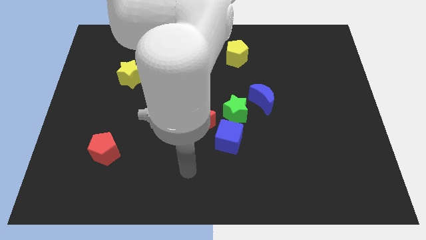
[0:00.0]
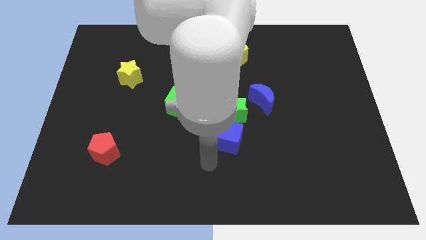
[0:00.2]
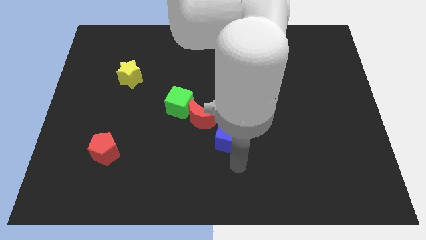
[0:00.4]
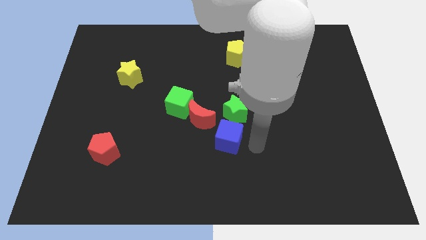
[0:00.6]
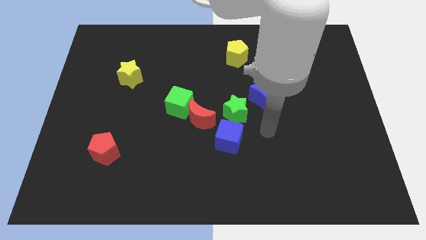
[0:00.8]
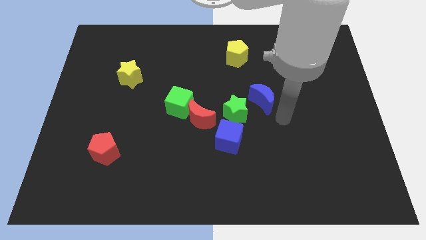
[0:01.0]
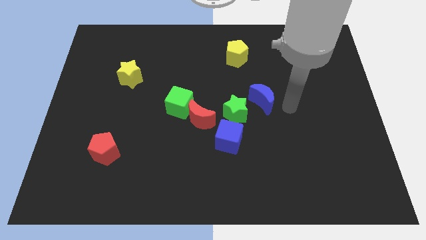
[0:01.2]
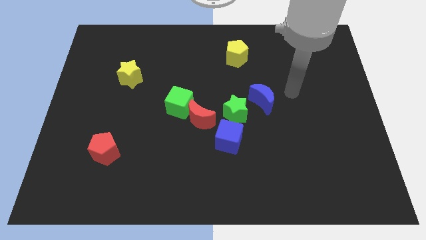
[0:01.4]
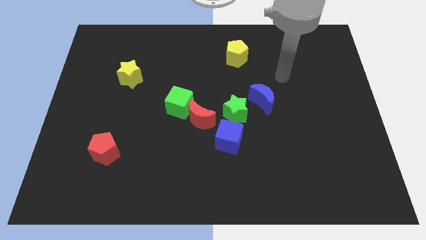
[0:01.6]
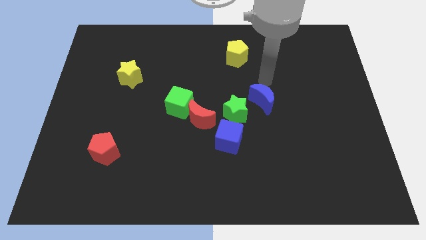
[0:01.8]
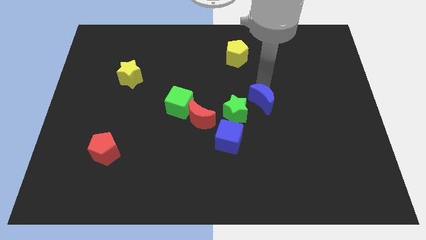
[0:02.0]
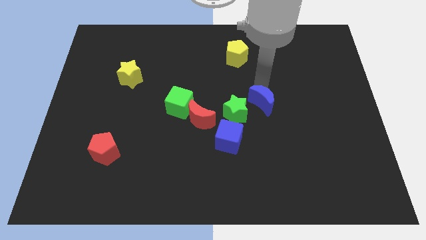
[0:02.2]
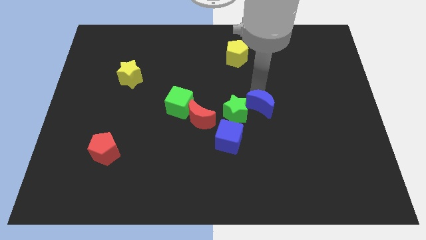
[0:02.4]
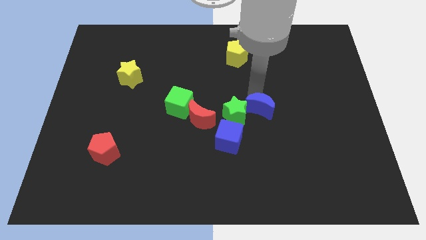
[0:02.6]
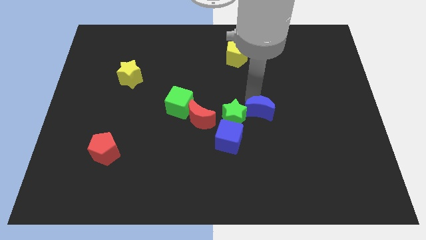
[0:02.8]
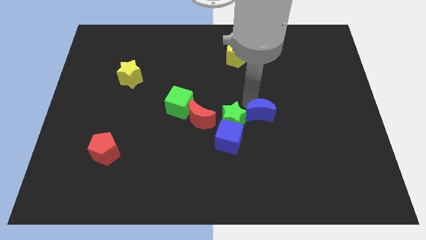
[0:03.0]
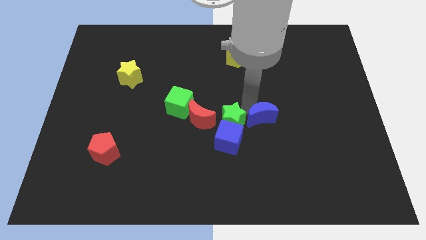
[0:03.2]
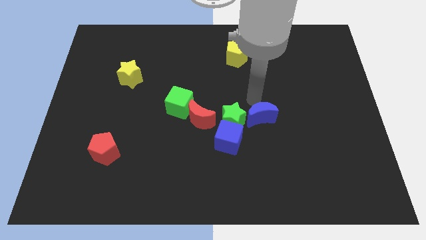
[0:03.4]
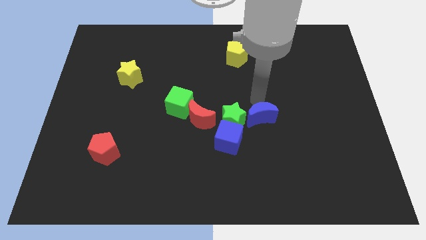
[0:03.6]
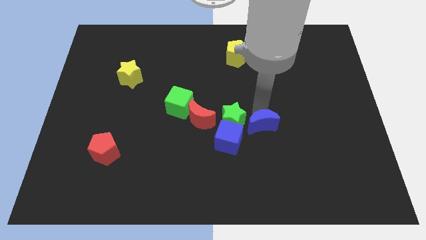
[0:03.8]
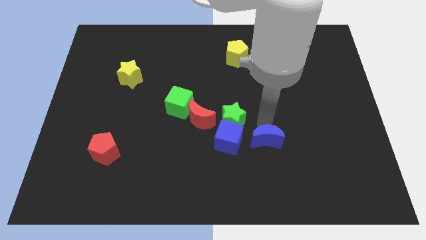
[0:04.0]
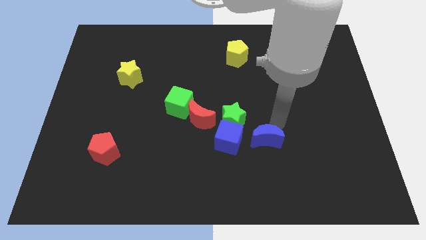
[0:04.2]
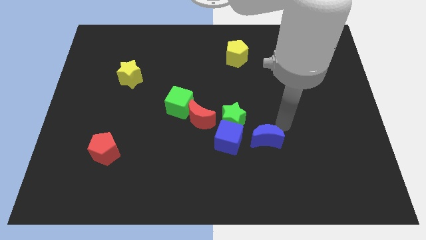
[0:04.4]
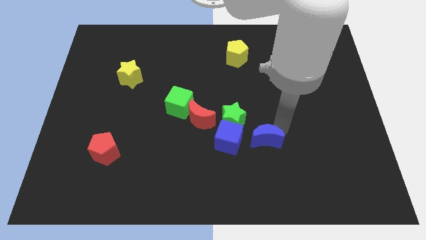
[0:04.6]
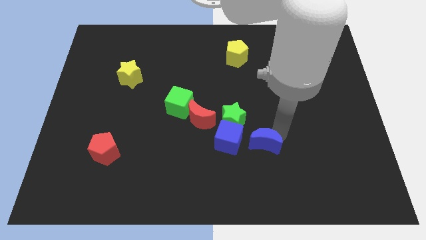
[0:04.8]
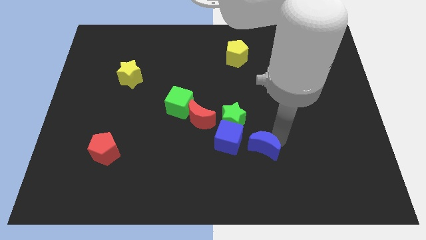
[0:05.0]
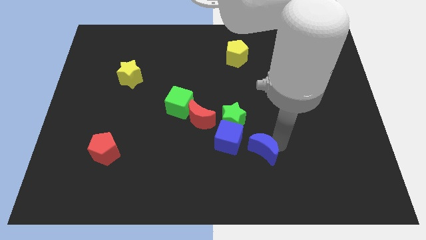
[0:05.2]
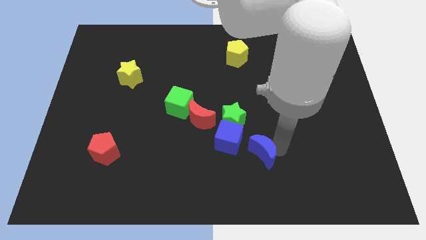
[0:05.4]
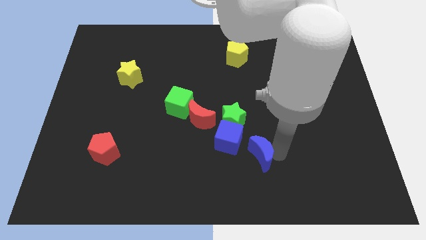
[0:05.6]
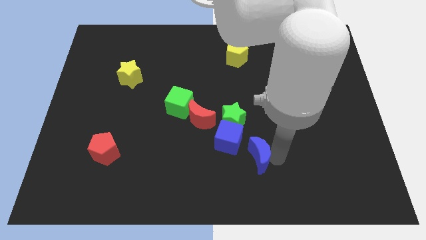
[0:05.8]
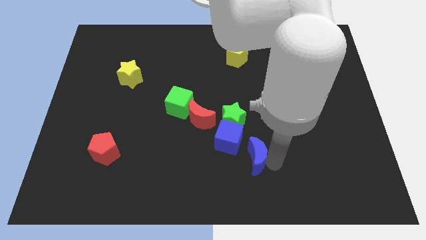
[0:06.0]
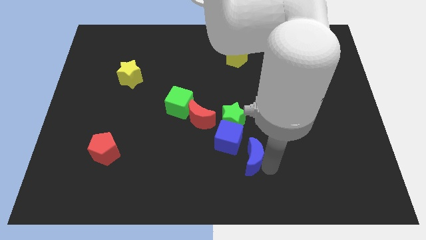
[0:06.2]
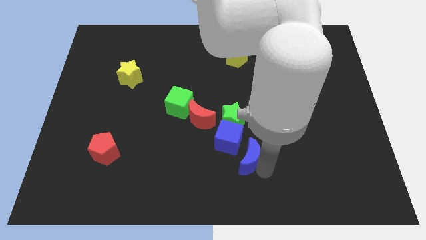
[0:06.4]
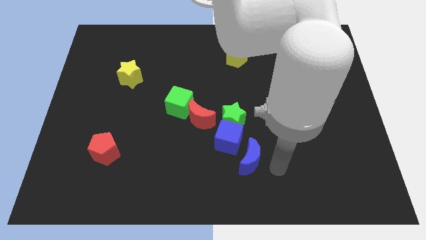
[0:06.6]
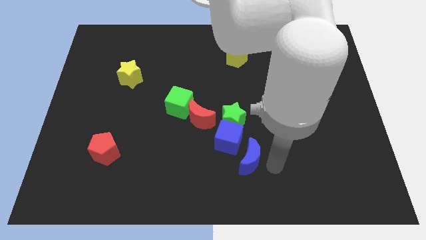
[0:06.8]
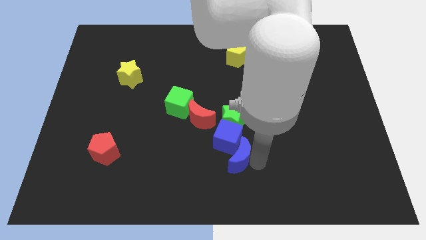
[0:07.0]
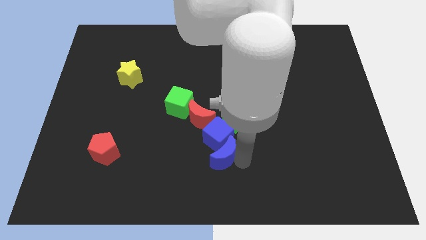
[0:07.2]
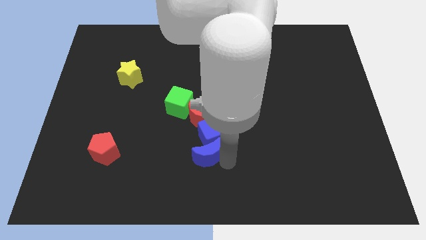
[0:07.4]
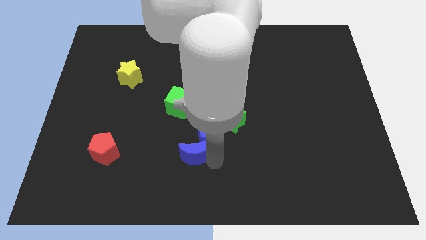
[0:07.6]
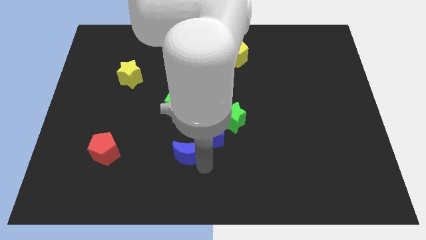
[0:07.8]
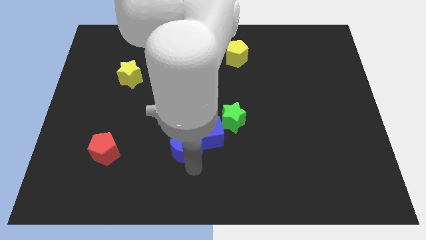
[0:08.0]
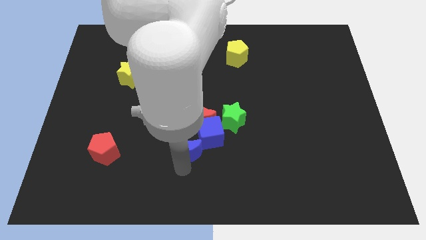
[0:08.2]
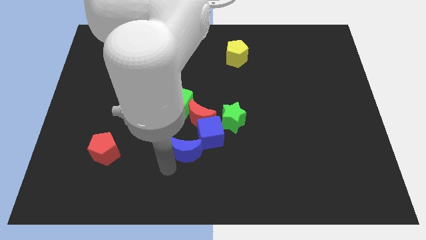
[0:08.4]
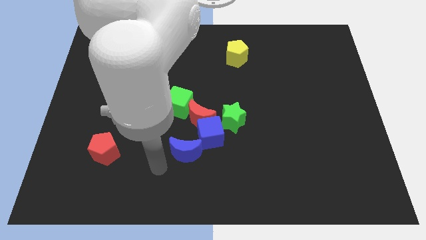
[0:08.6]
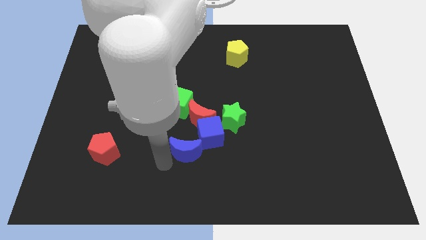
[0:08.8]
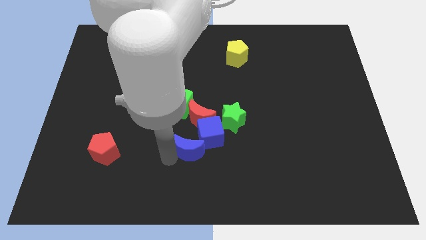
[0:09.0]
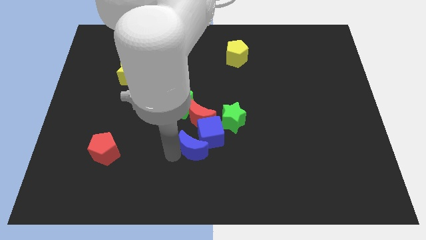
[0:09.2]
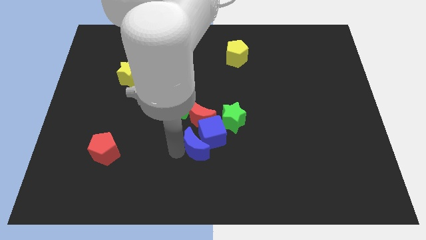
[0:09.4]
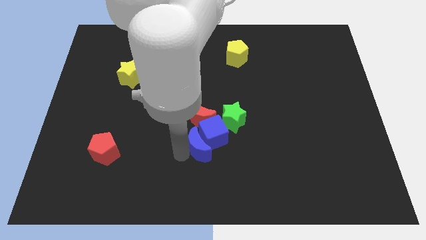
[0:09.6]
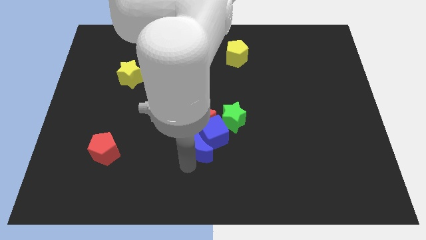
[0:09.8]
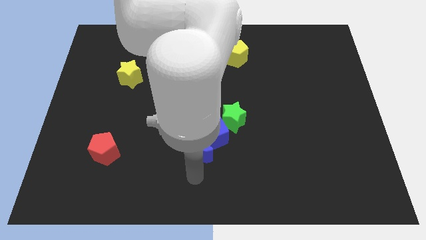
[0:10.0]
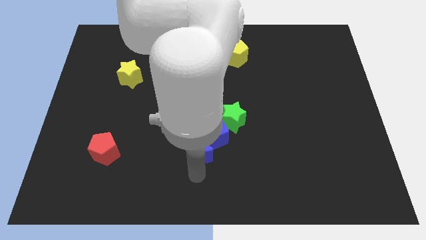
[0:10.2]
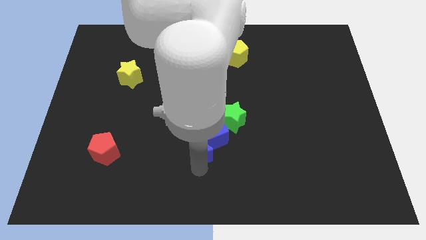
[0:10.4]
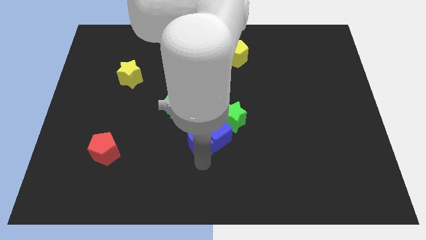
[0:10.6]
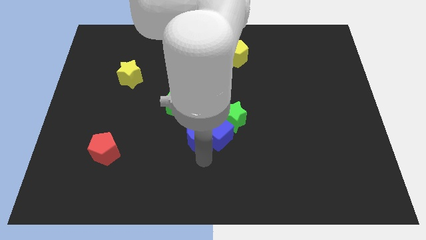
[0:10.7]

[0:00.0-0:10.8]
move the blue moon diagonally down and to the right of the green cube

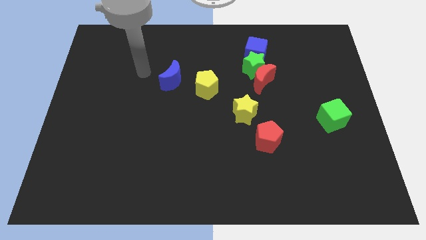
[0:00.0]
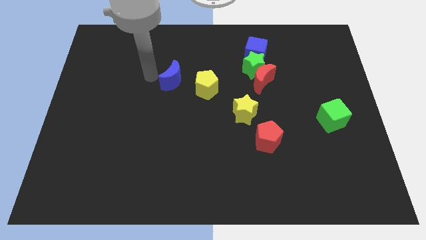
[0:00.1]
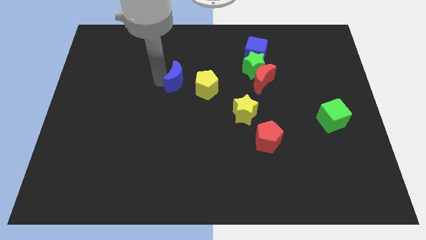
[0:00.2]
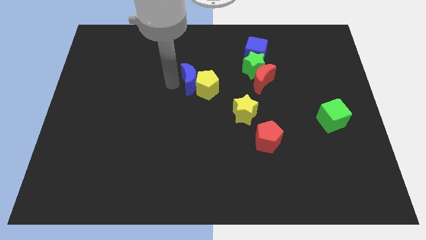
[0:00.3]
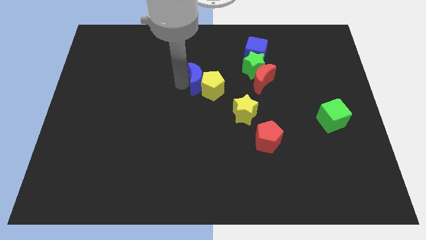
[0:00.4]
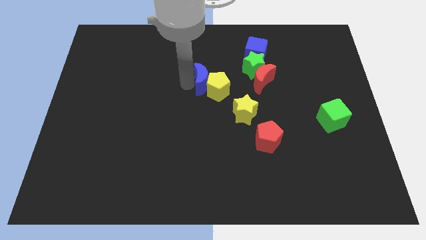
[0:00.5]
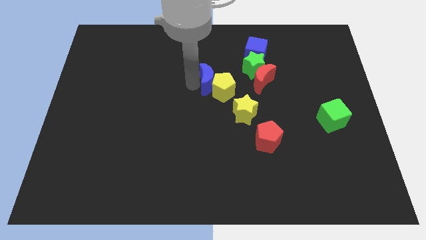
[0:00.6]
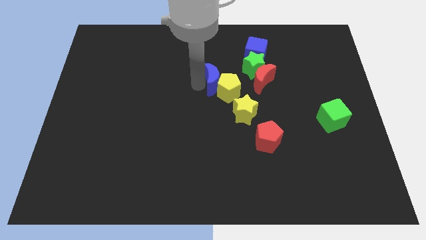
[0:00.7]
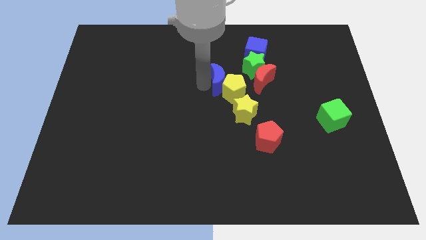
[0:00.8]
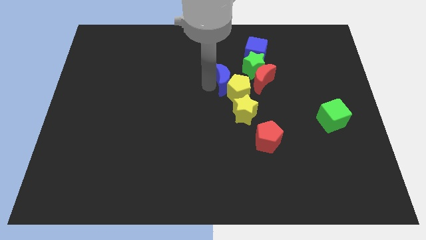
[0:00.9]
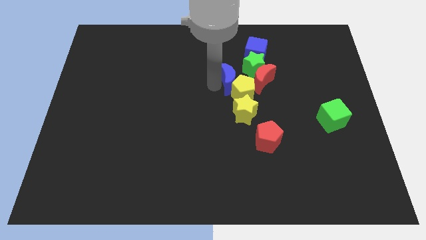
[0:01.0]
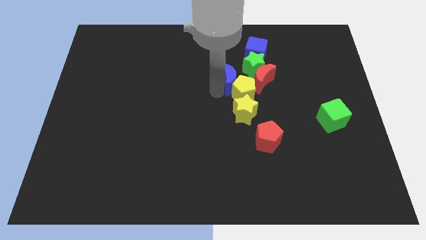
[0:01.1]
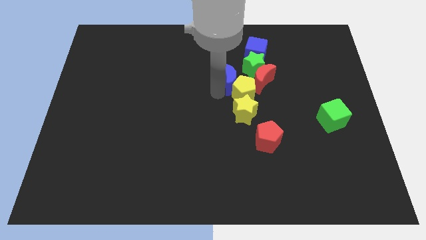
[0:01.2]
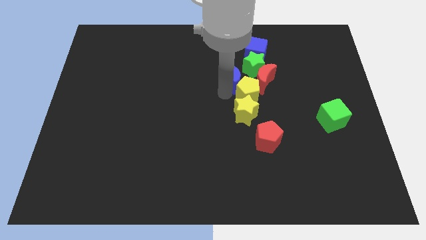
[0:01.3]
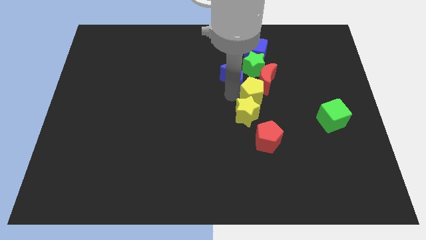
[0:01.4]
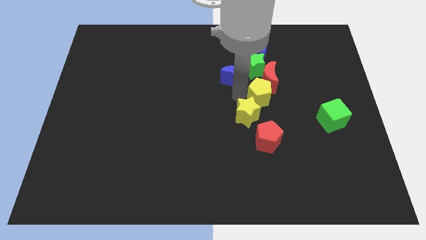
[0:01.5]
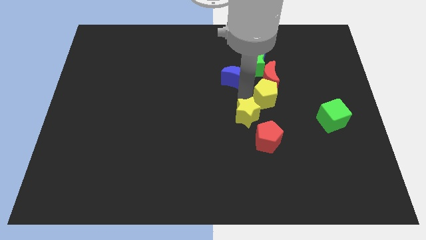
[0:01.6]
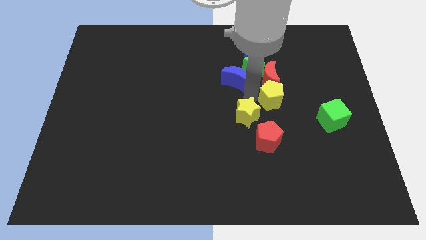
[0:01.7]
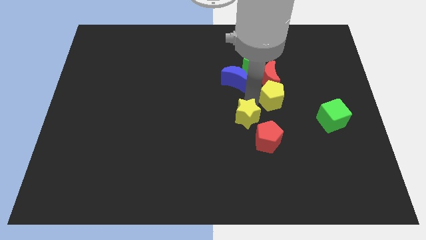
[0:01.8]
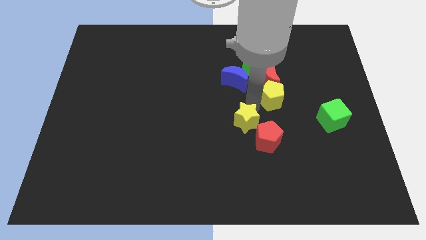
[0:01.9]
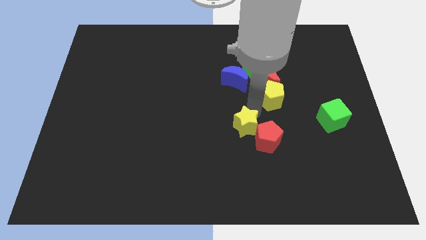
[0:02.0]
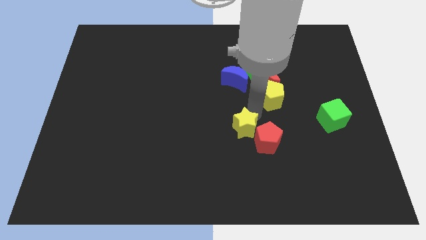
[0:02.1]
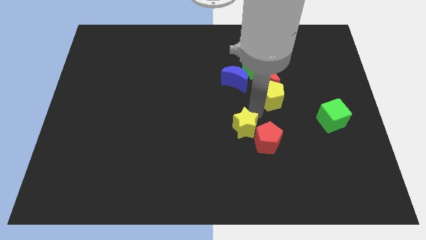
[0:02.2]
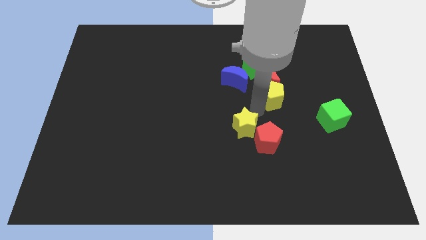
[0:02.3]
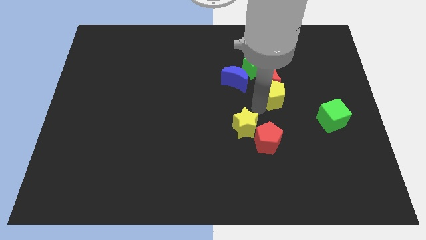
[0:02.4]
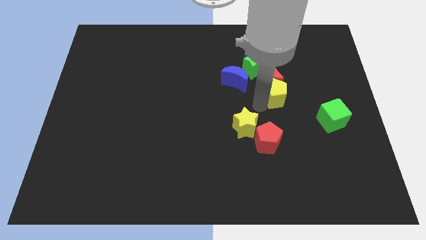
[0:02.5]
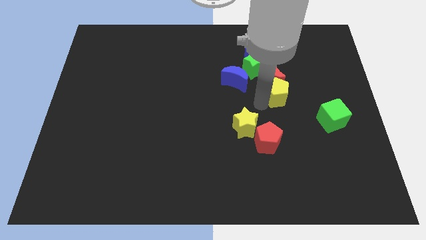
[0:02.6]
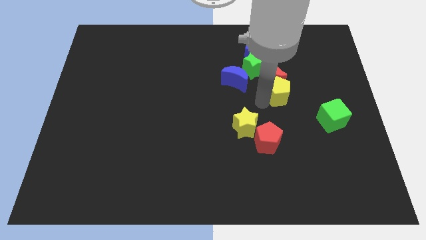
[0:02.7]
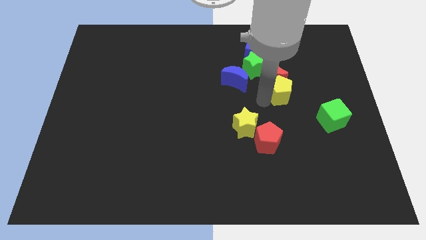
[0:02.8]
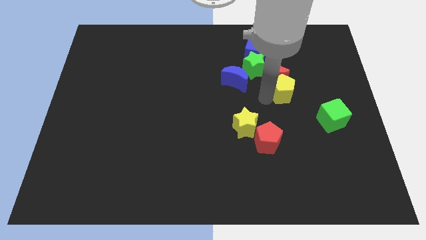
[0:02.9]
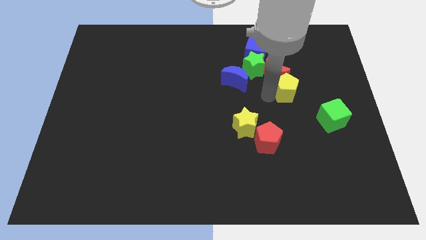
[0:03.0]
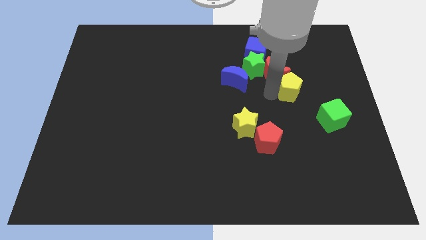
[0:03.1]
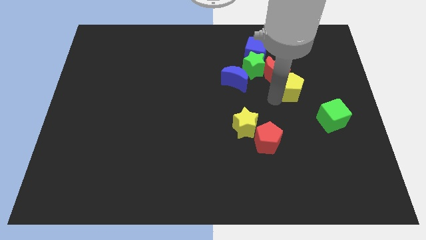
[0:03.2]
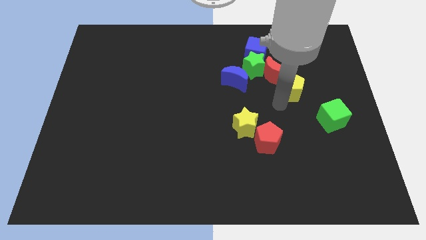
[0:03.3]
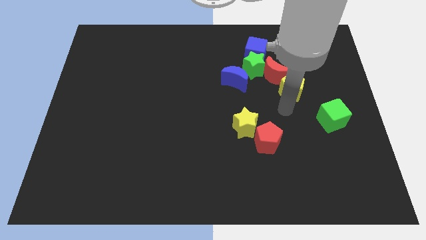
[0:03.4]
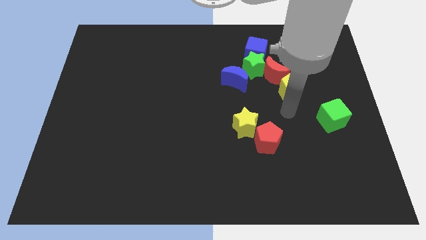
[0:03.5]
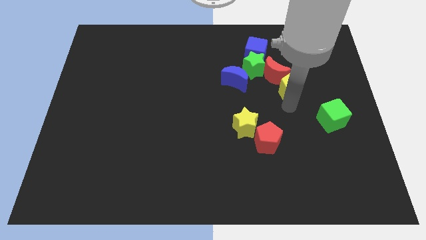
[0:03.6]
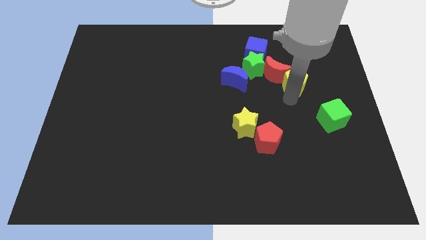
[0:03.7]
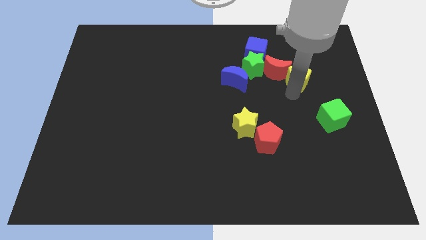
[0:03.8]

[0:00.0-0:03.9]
push the yellow pentagon to the right side of the green star
